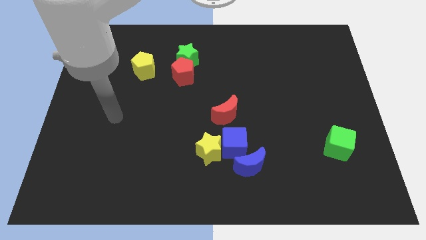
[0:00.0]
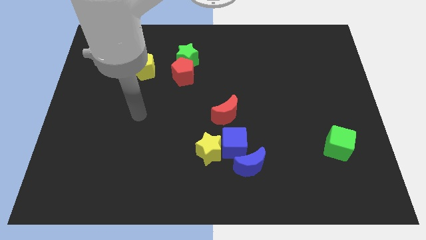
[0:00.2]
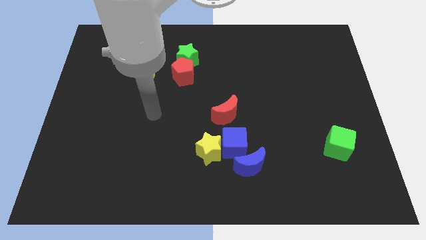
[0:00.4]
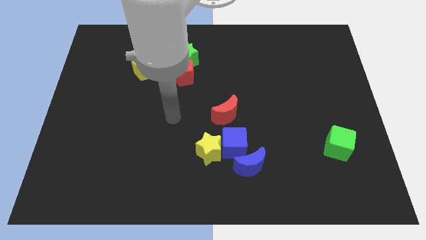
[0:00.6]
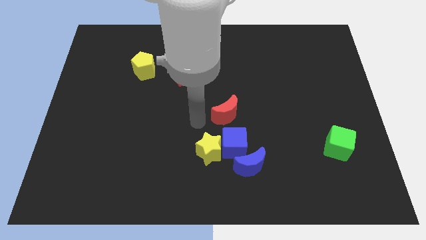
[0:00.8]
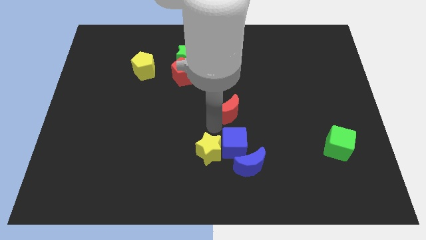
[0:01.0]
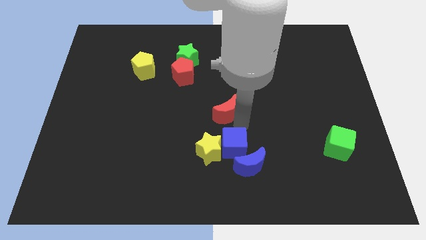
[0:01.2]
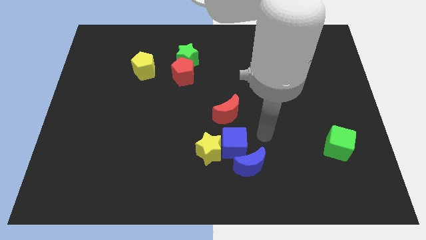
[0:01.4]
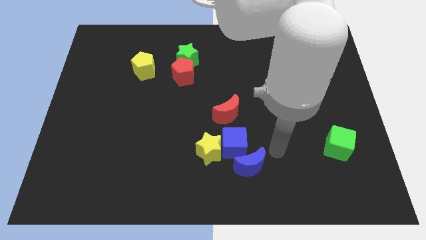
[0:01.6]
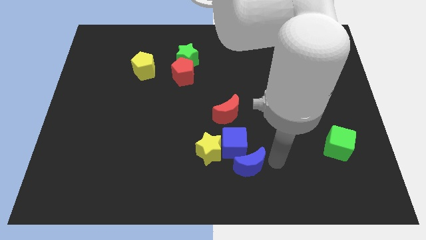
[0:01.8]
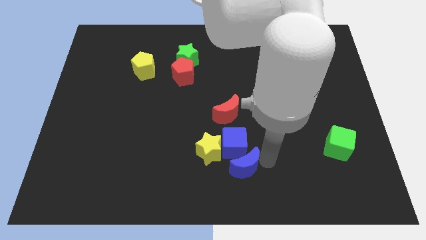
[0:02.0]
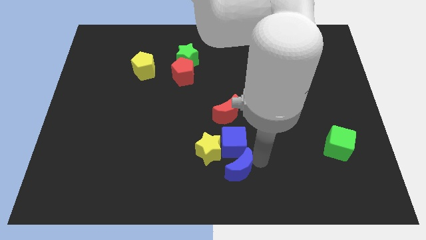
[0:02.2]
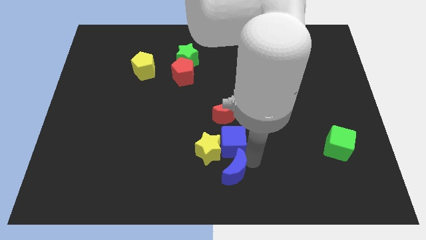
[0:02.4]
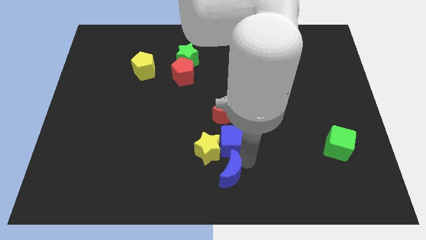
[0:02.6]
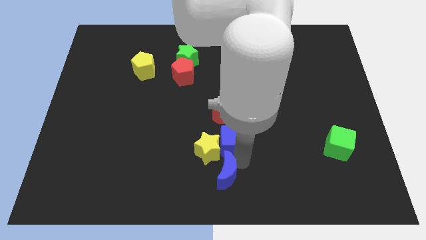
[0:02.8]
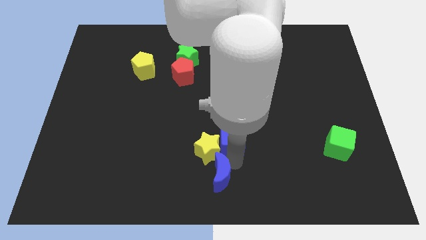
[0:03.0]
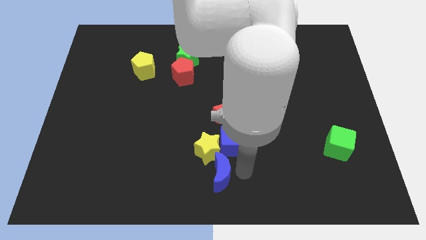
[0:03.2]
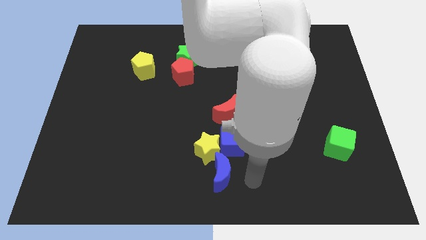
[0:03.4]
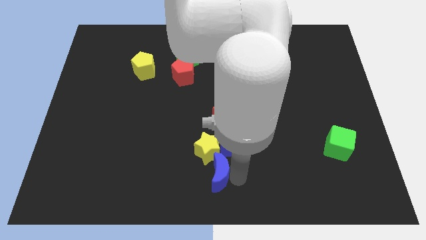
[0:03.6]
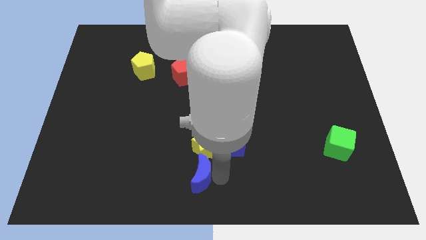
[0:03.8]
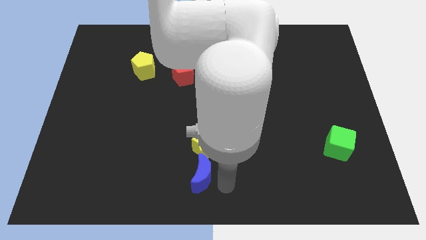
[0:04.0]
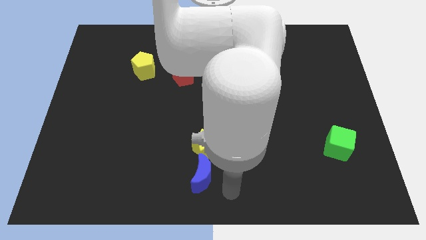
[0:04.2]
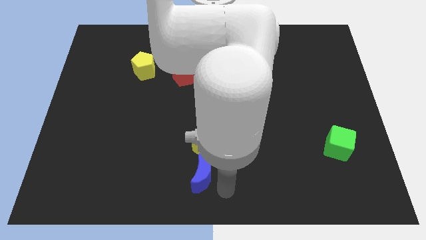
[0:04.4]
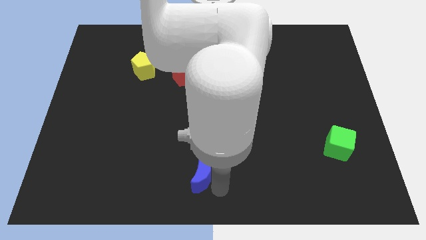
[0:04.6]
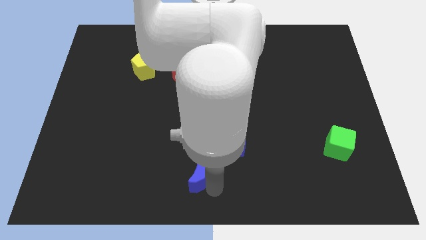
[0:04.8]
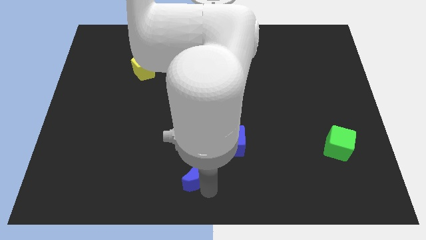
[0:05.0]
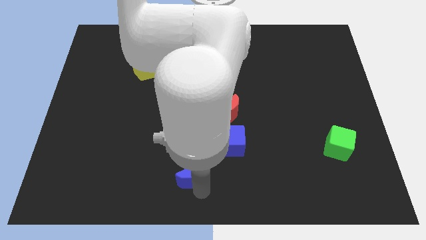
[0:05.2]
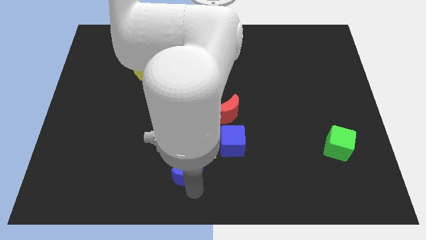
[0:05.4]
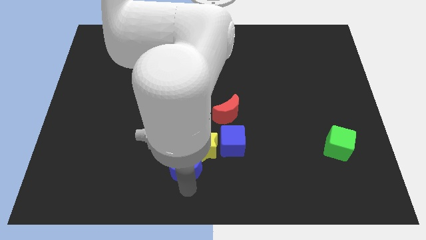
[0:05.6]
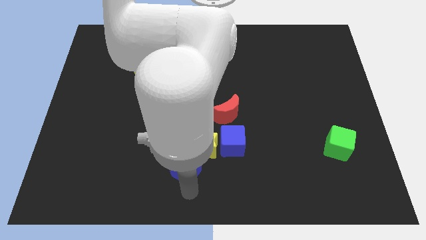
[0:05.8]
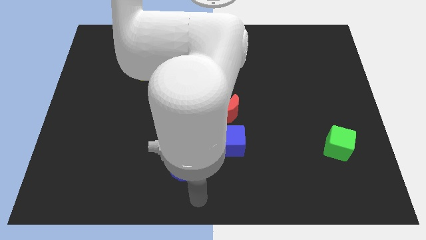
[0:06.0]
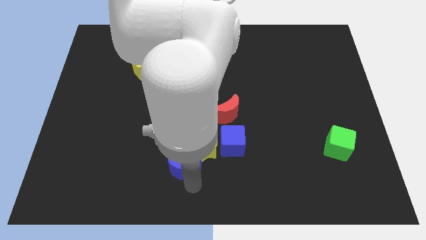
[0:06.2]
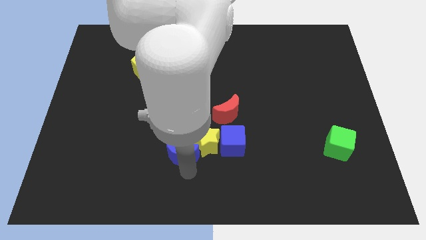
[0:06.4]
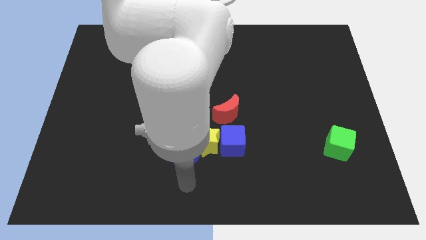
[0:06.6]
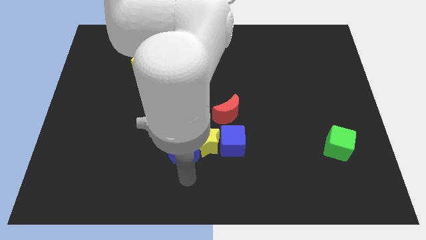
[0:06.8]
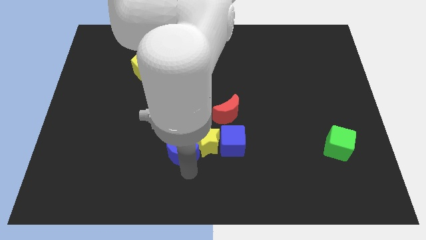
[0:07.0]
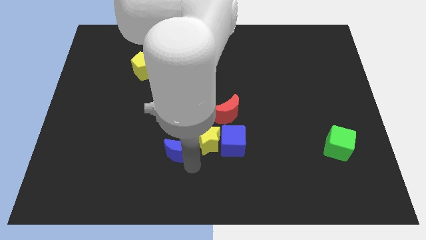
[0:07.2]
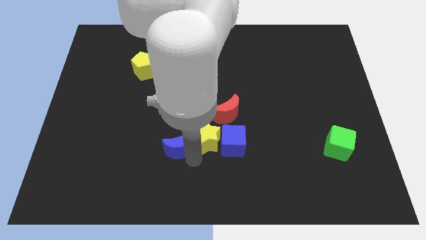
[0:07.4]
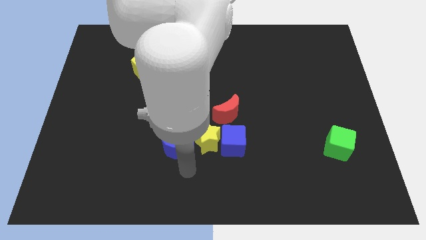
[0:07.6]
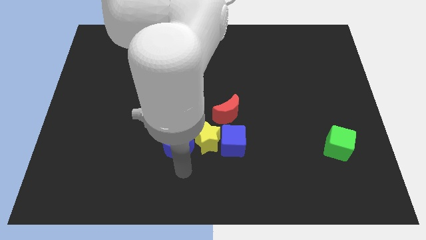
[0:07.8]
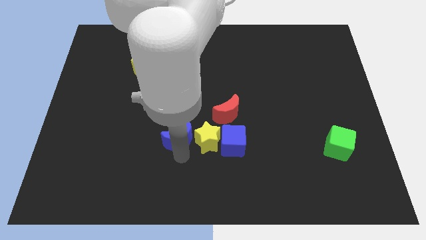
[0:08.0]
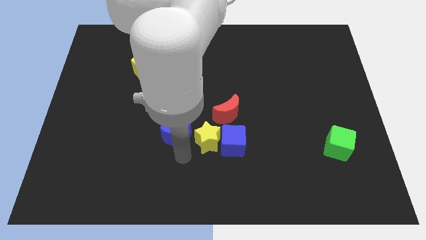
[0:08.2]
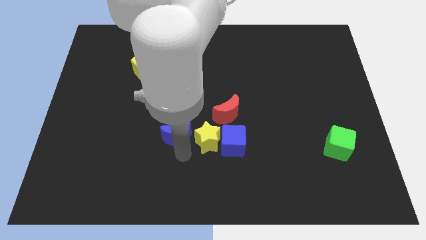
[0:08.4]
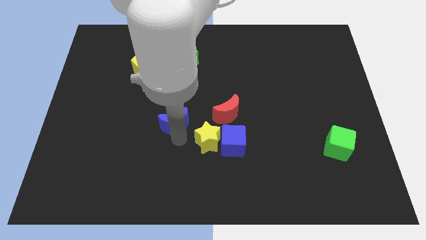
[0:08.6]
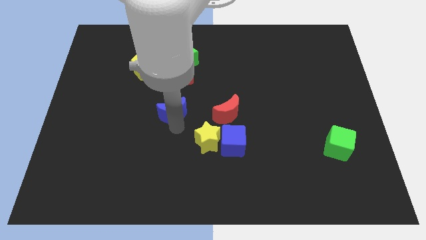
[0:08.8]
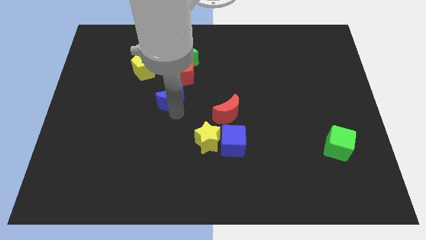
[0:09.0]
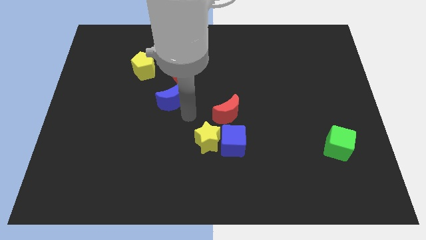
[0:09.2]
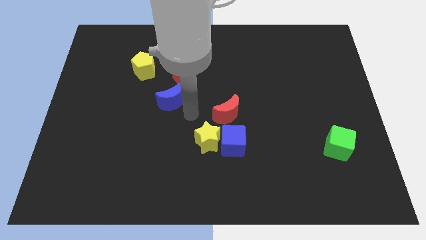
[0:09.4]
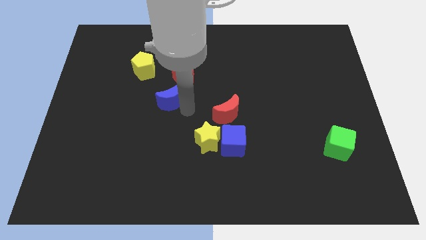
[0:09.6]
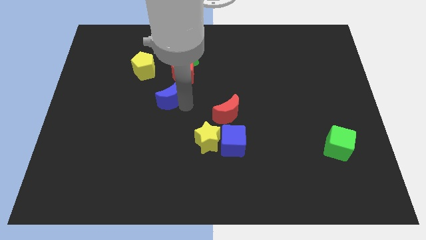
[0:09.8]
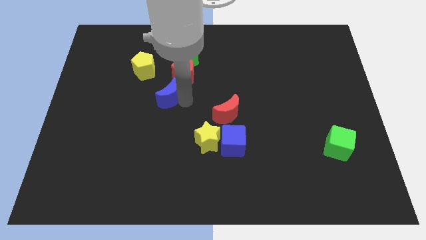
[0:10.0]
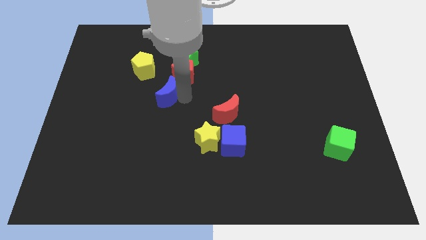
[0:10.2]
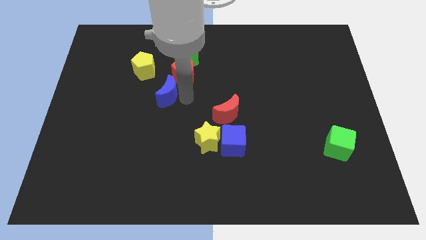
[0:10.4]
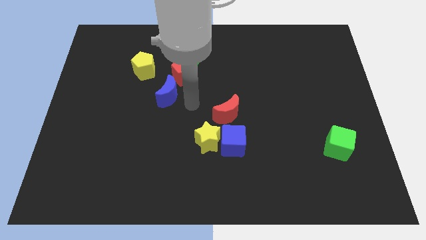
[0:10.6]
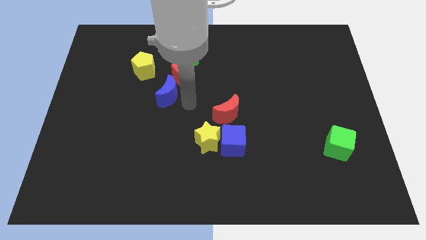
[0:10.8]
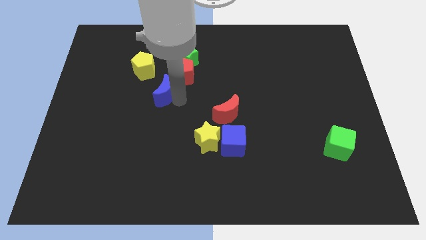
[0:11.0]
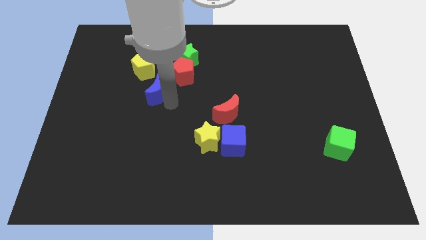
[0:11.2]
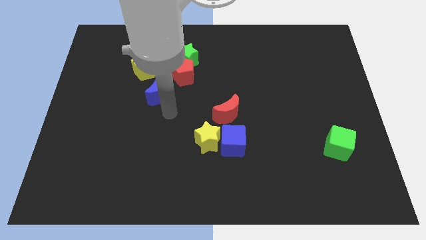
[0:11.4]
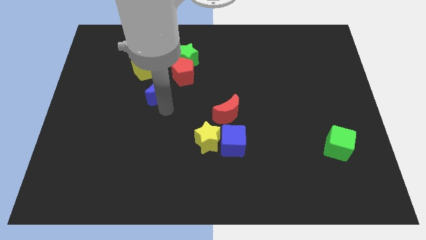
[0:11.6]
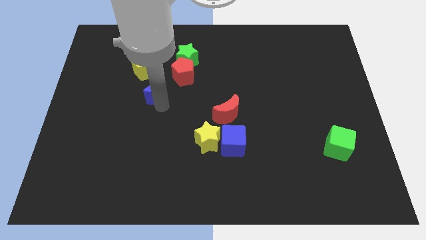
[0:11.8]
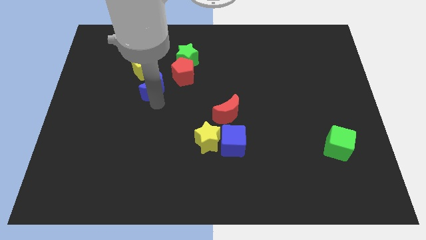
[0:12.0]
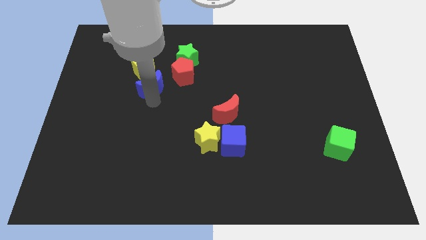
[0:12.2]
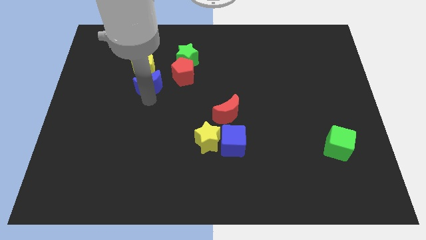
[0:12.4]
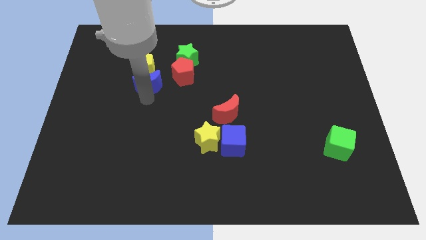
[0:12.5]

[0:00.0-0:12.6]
put the blue moon to the yellow pentagon

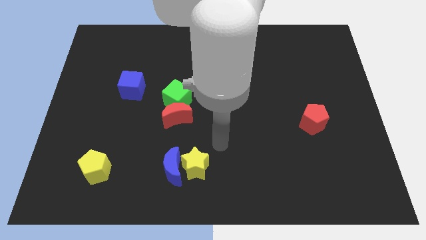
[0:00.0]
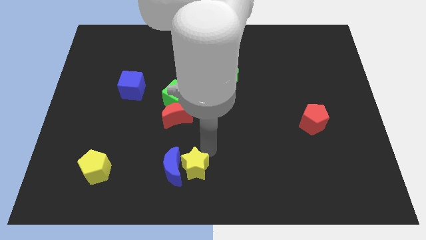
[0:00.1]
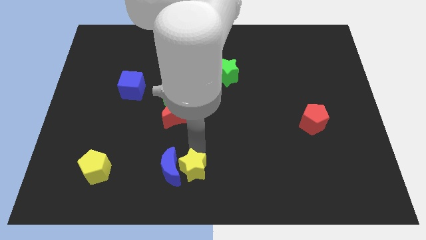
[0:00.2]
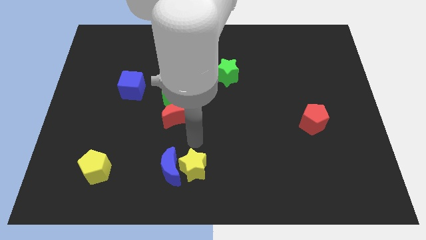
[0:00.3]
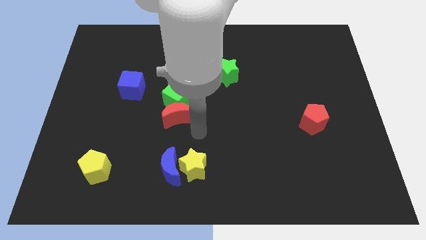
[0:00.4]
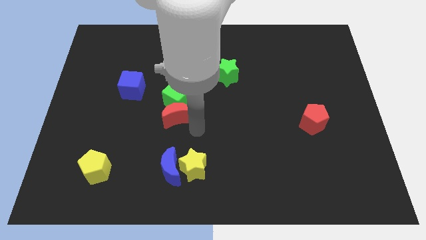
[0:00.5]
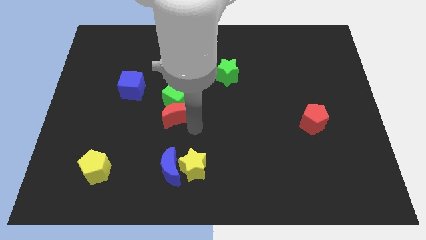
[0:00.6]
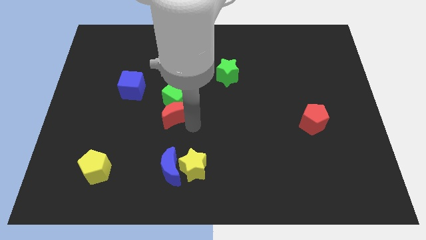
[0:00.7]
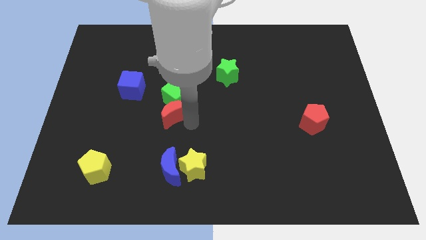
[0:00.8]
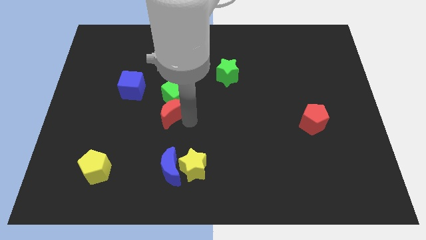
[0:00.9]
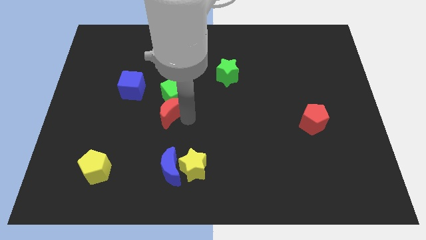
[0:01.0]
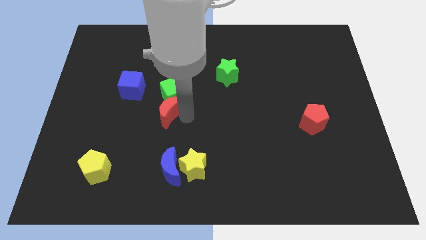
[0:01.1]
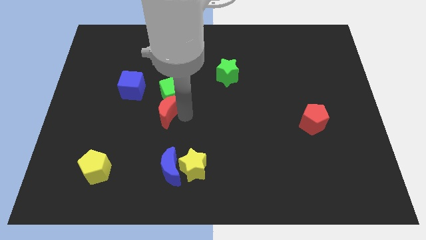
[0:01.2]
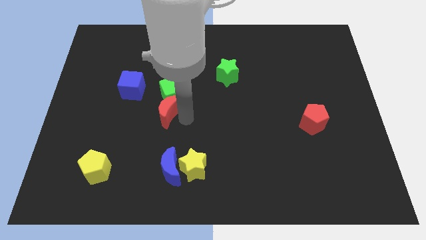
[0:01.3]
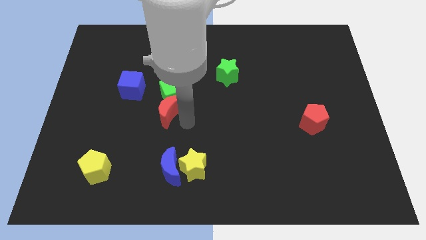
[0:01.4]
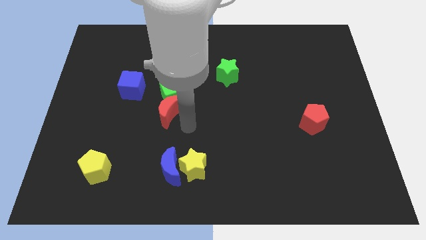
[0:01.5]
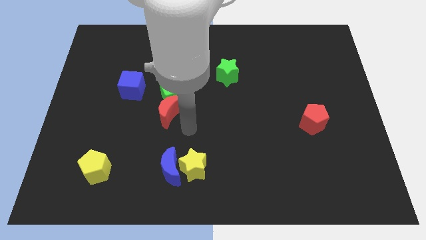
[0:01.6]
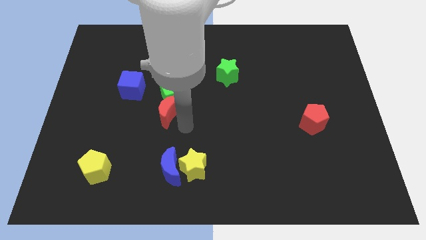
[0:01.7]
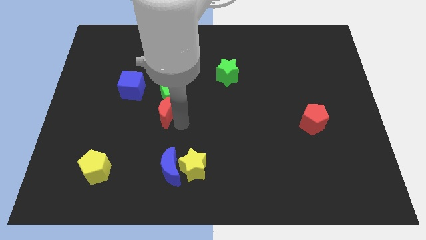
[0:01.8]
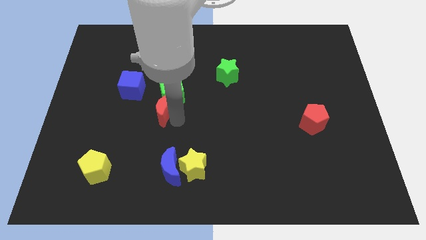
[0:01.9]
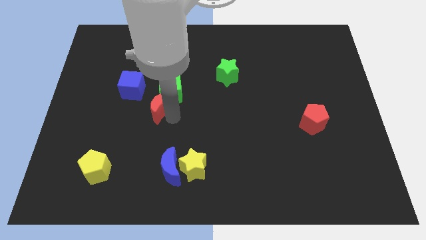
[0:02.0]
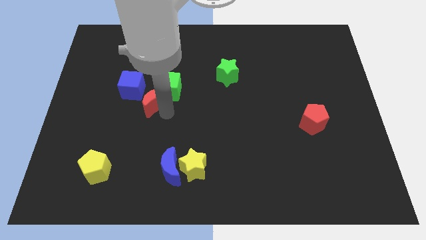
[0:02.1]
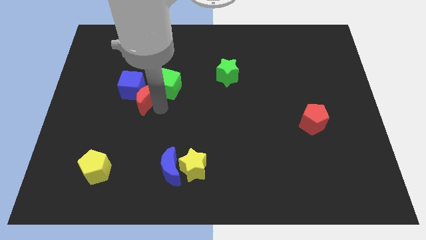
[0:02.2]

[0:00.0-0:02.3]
move the red moon next to the blue cube
